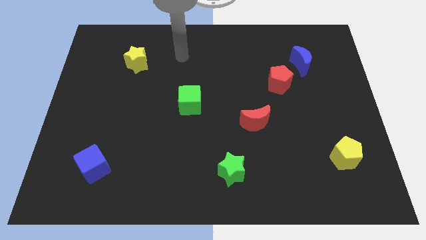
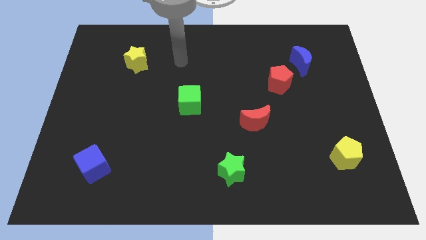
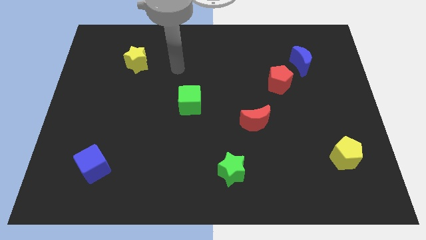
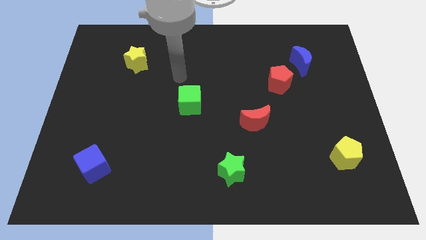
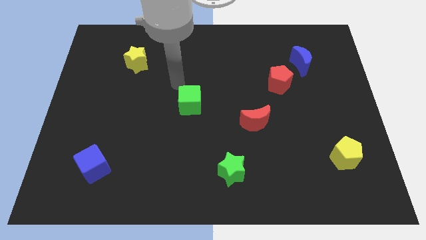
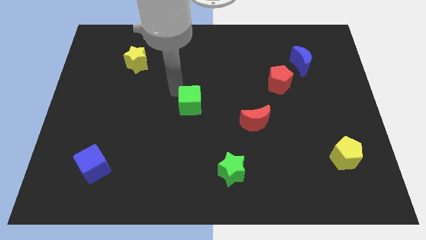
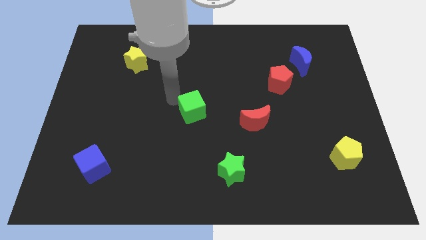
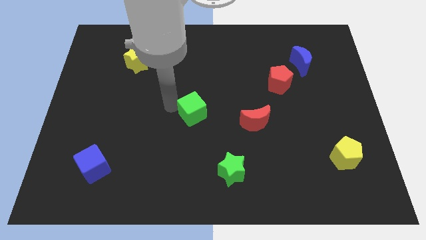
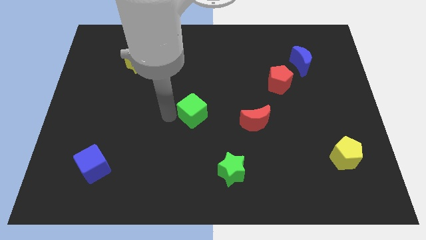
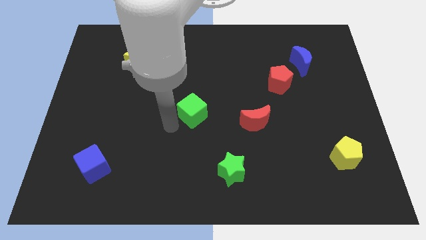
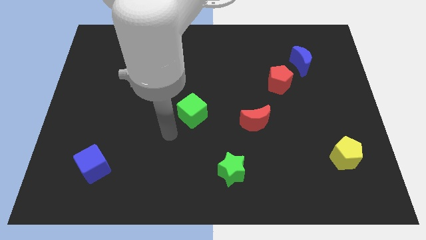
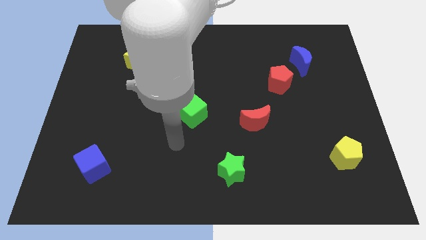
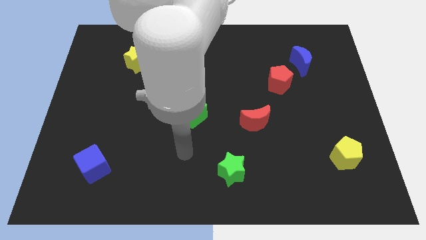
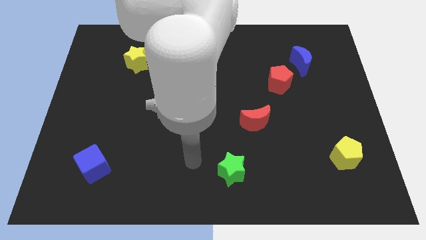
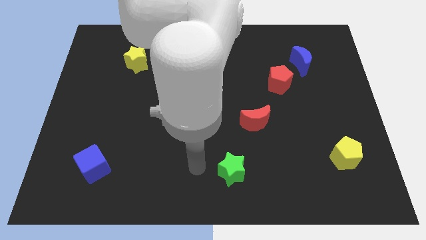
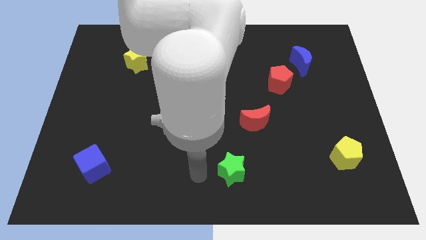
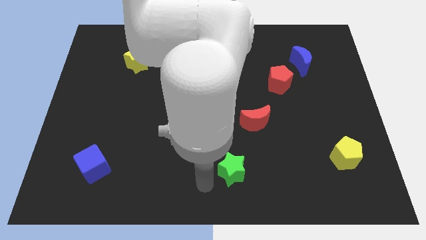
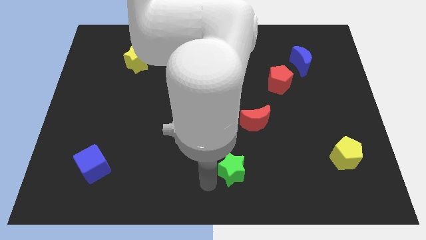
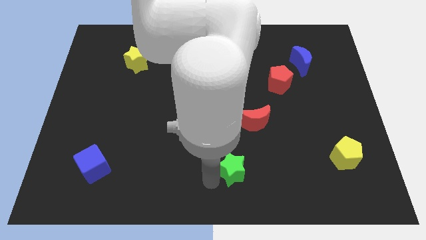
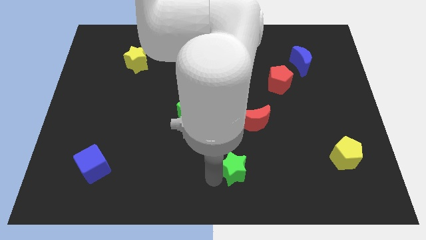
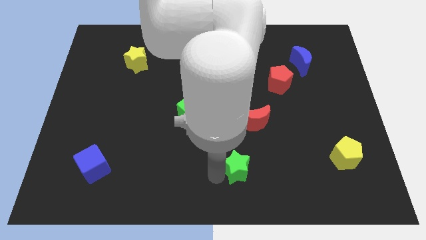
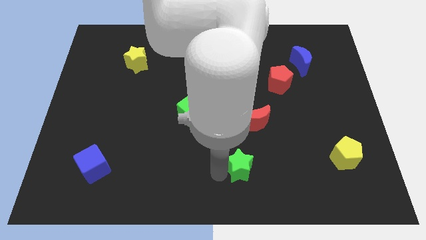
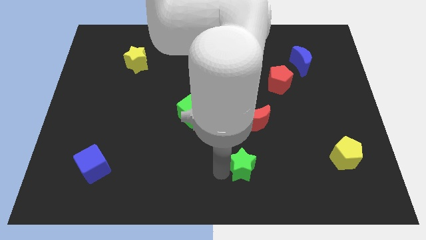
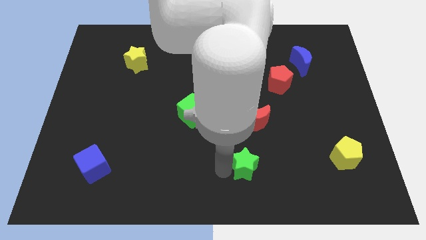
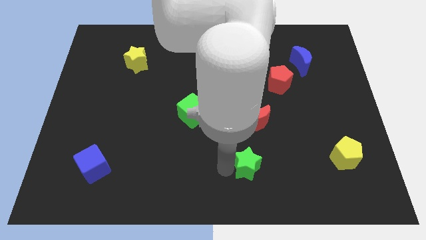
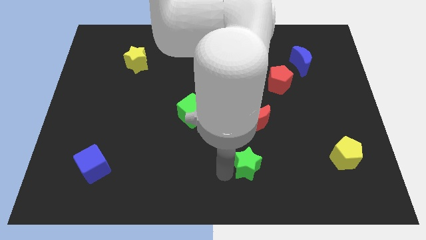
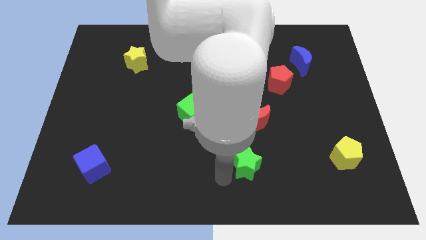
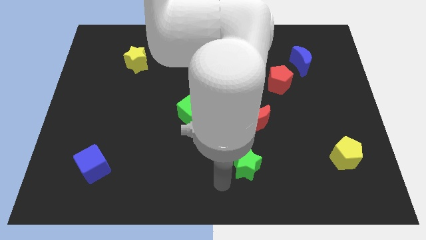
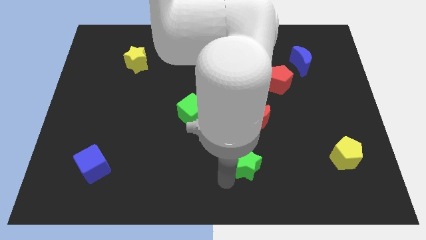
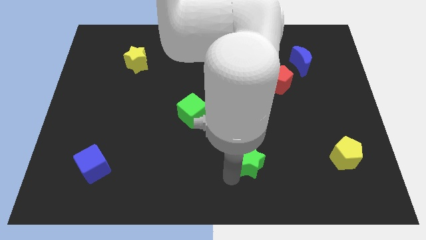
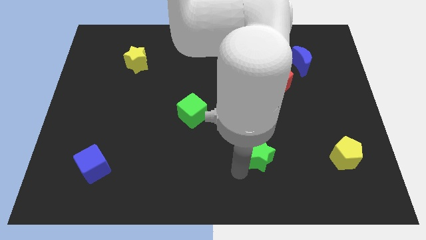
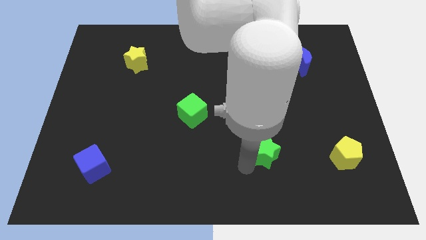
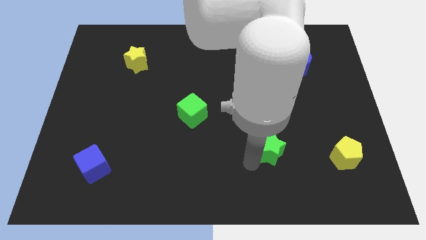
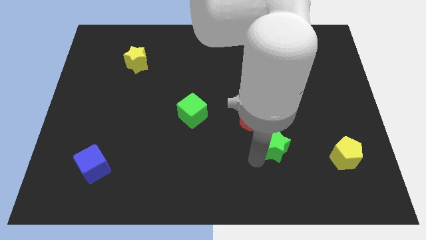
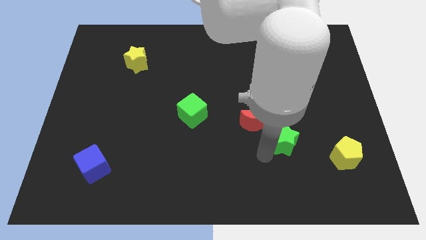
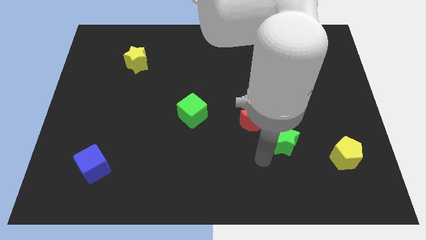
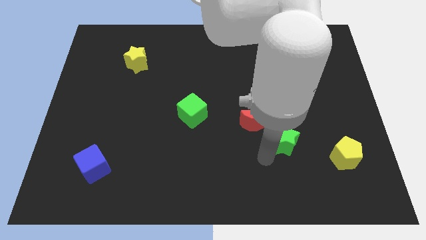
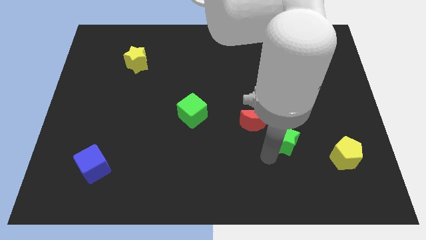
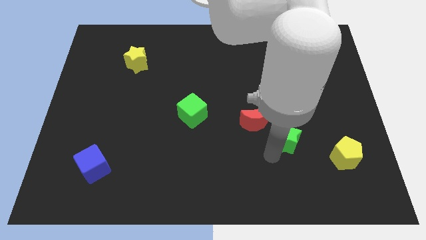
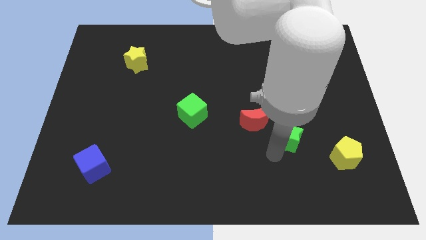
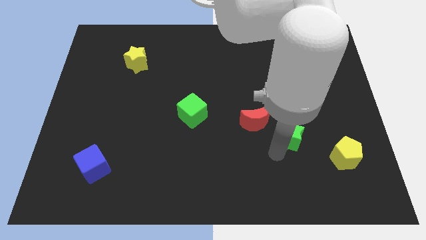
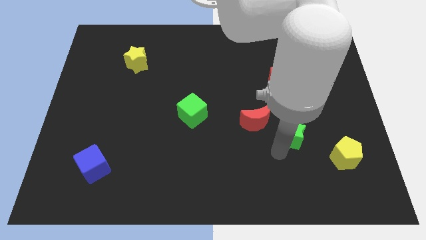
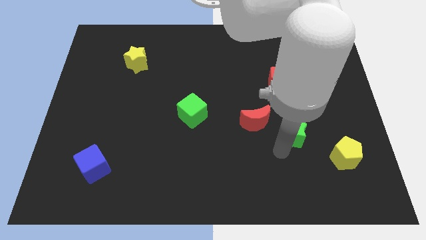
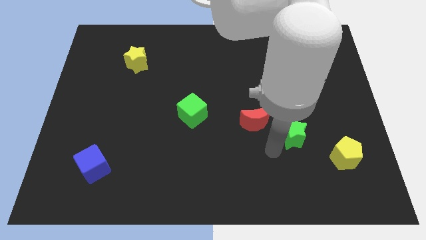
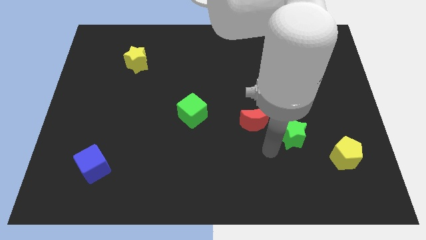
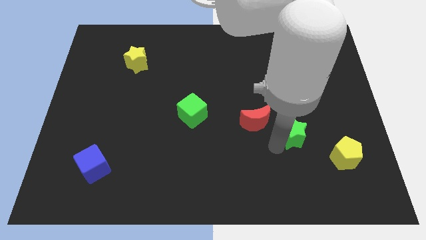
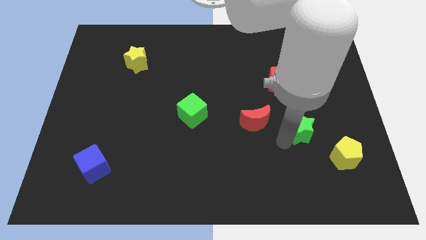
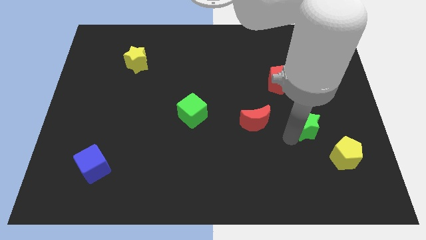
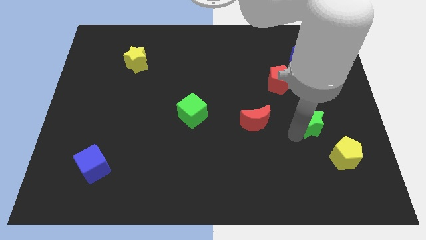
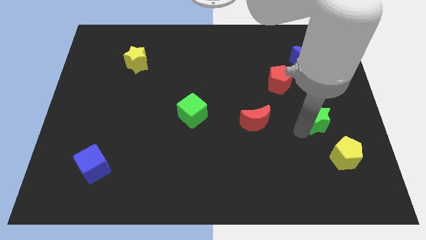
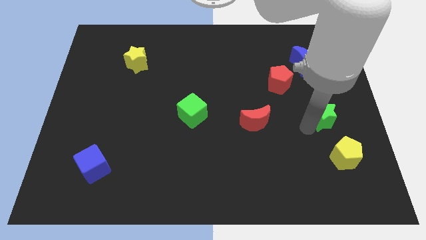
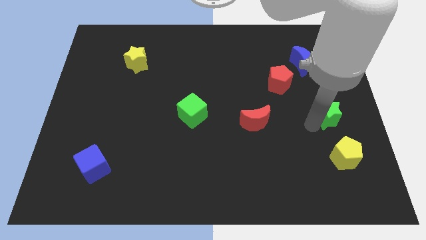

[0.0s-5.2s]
slide the green star to the center right

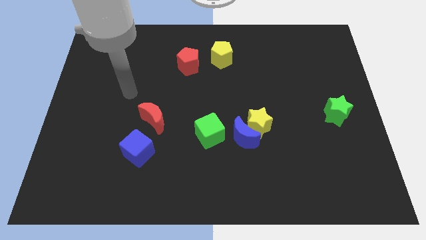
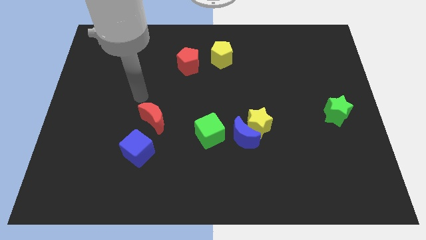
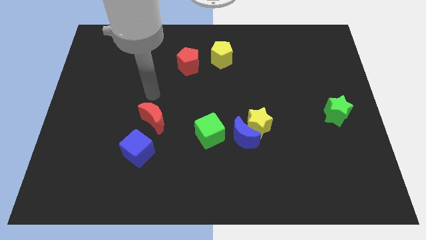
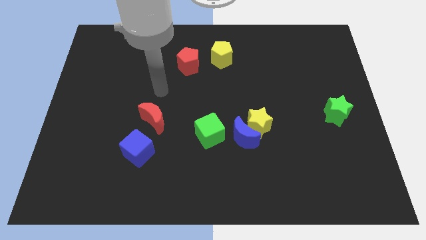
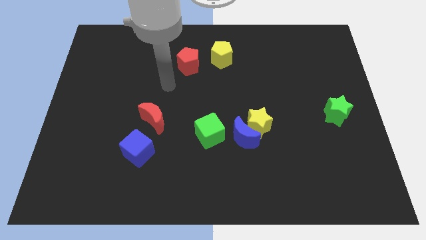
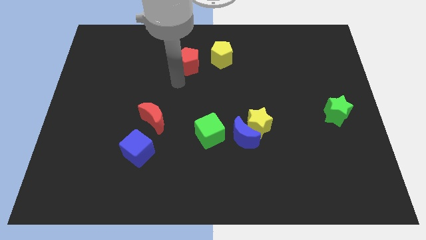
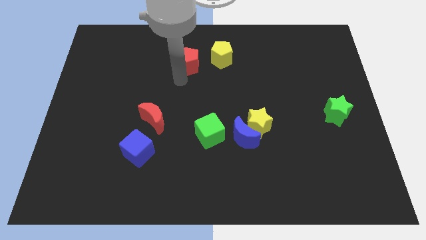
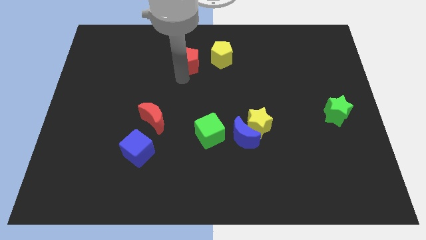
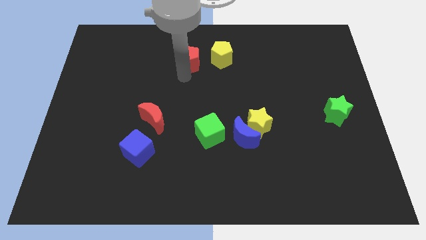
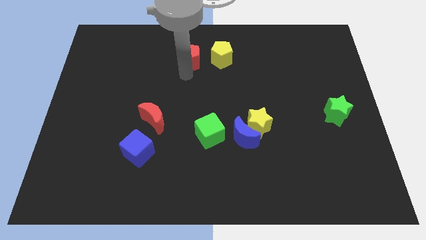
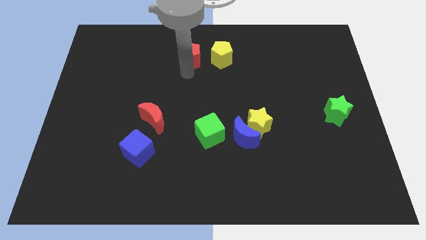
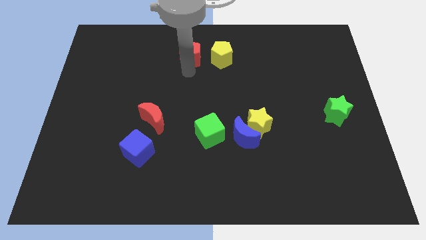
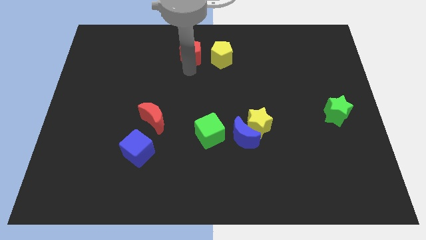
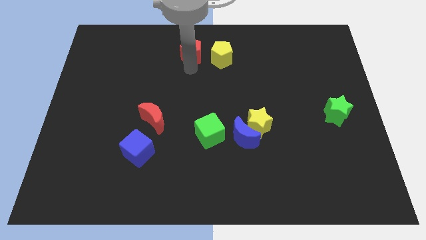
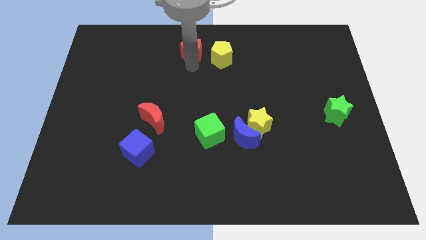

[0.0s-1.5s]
slide the red pentagon to the towards your base
